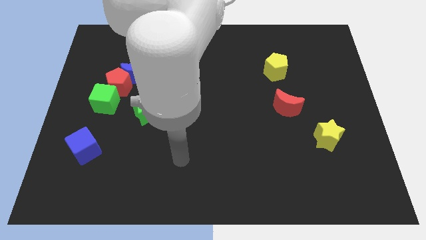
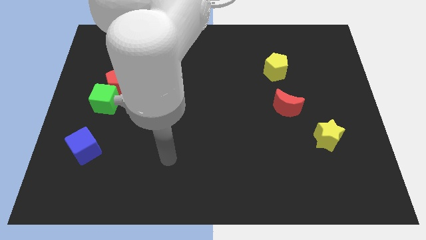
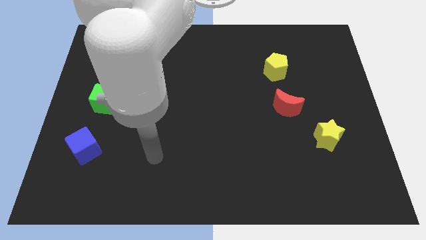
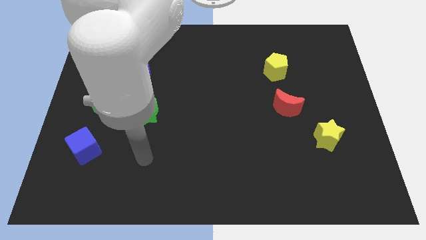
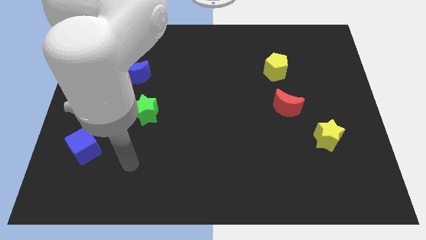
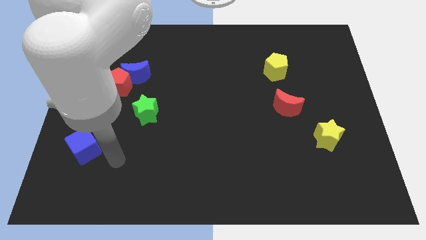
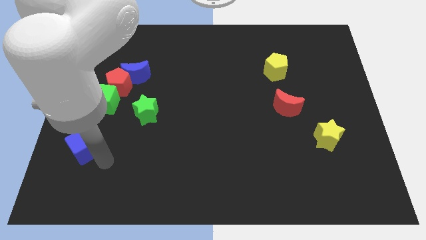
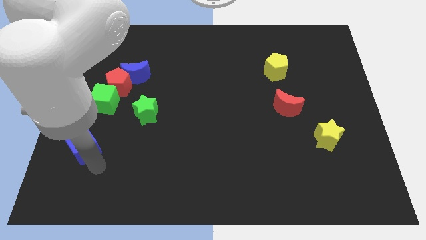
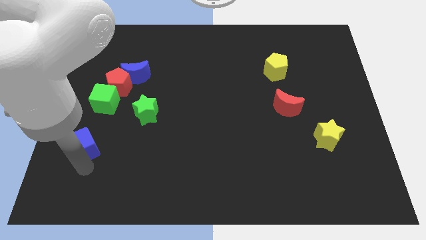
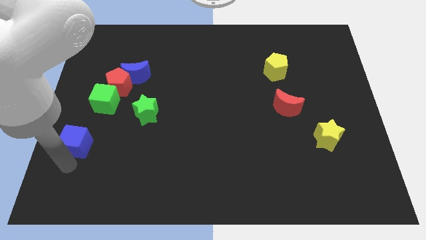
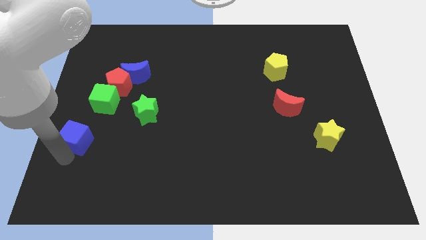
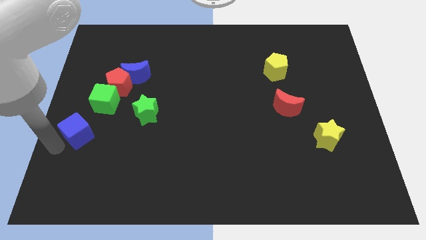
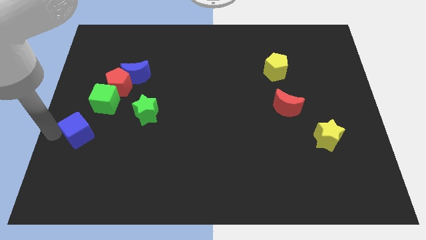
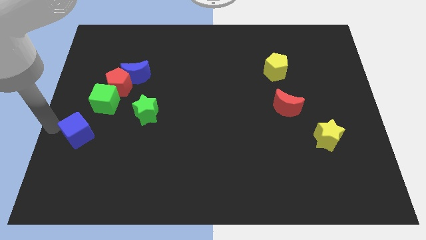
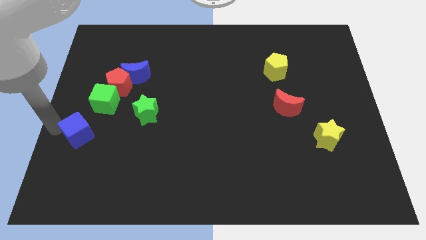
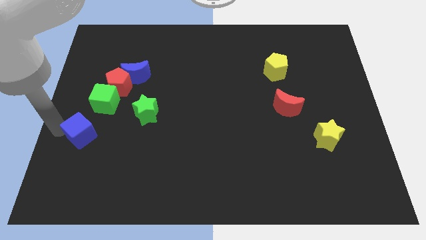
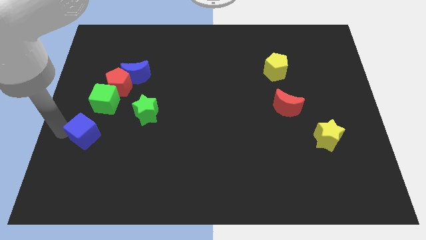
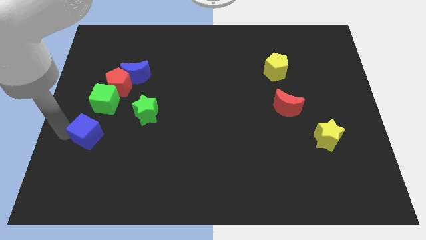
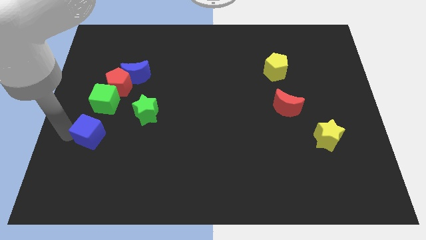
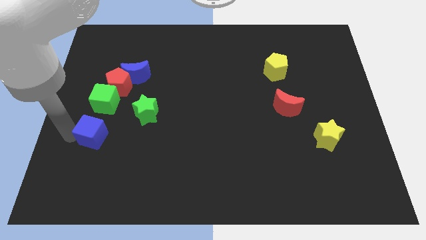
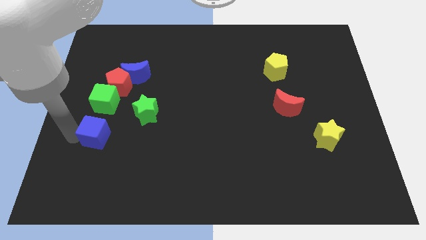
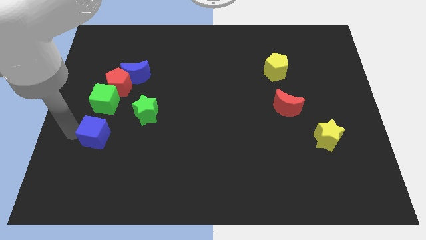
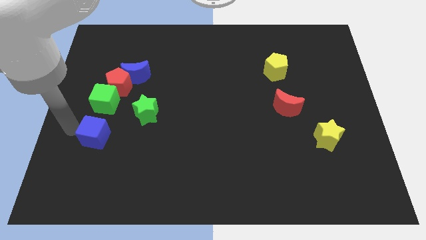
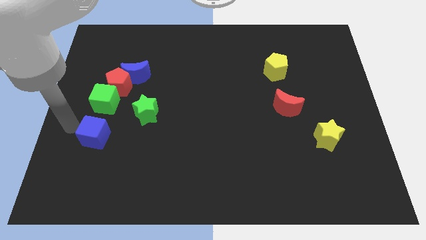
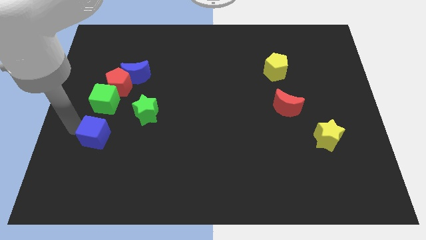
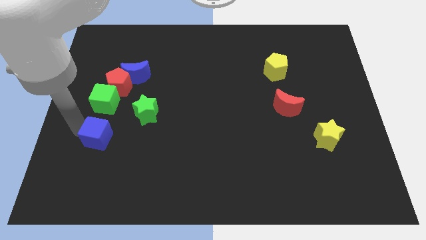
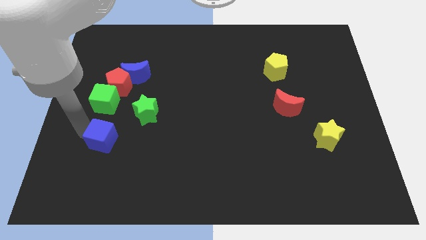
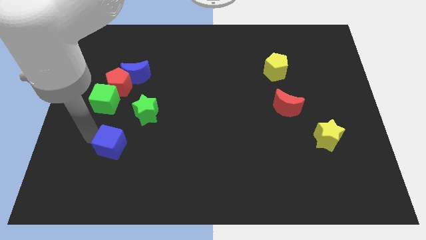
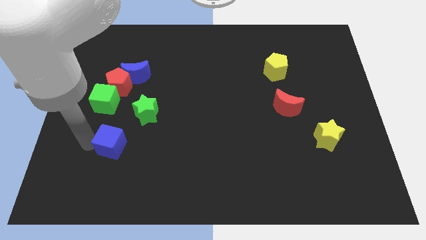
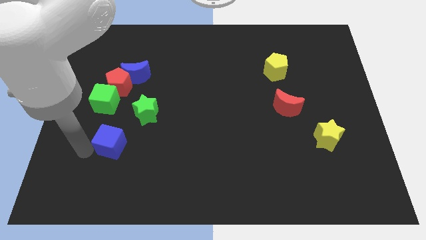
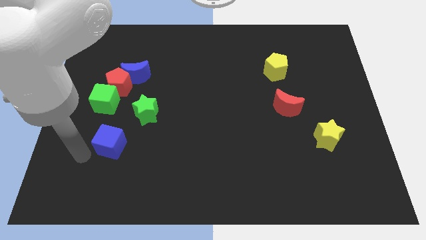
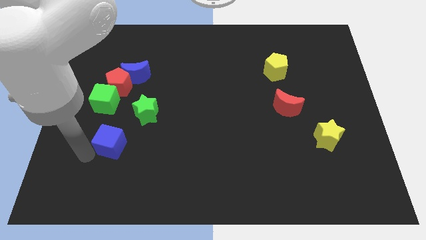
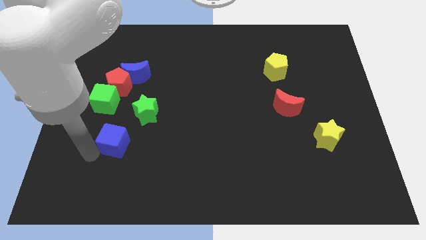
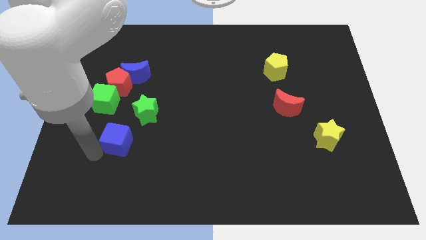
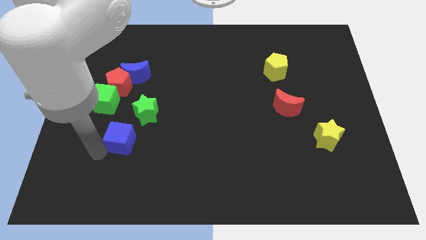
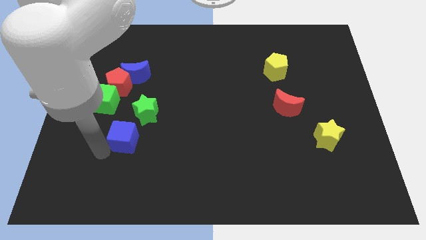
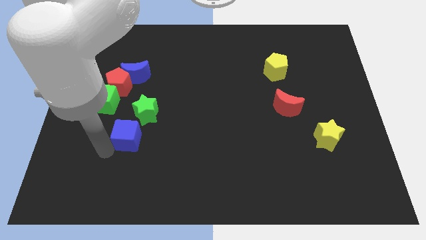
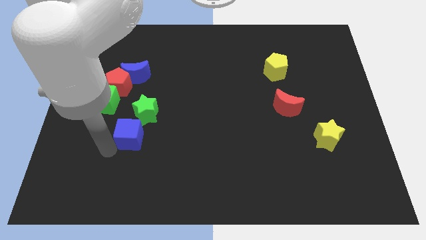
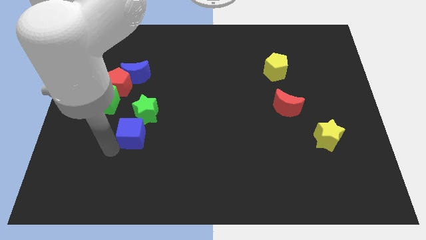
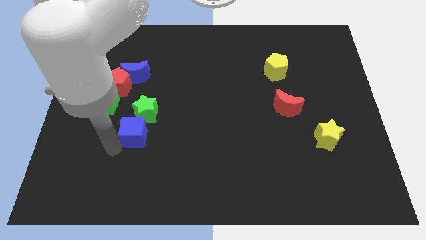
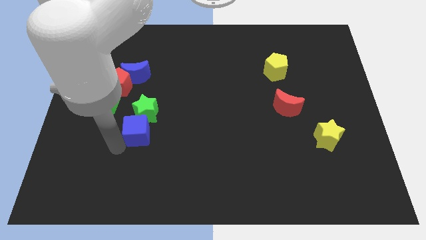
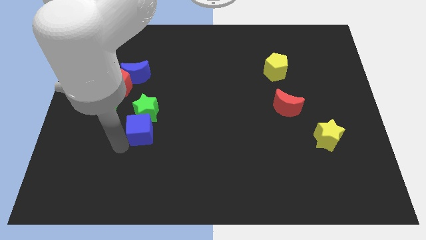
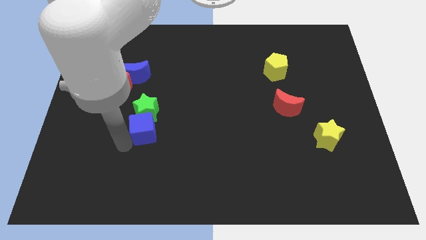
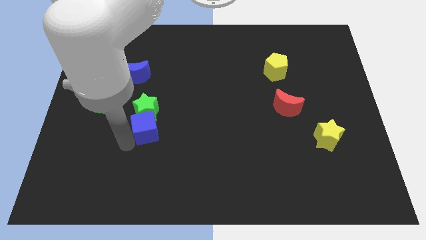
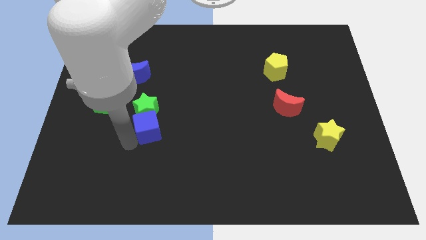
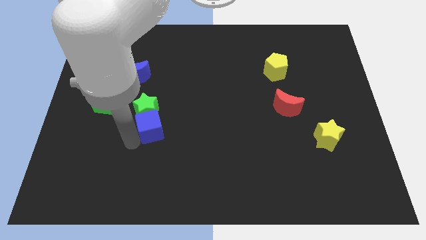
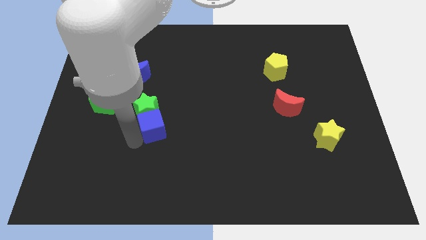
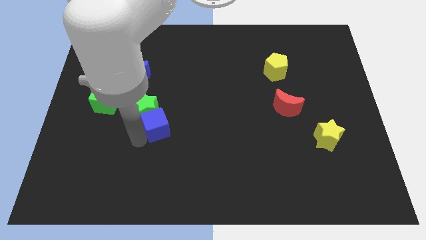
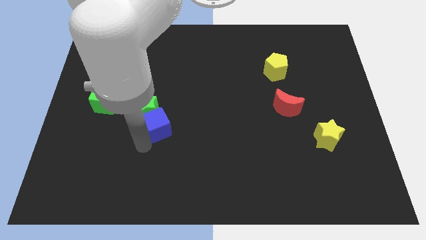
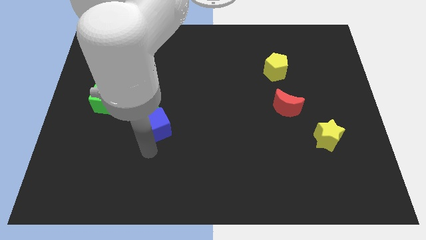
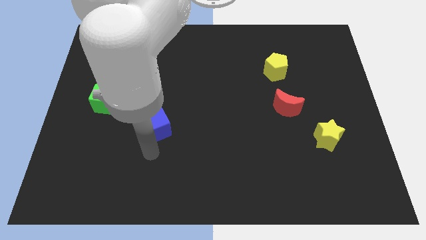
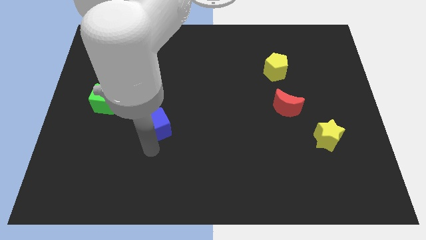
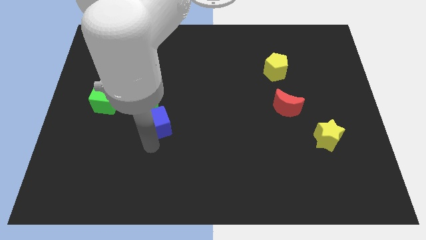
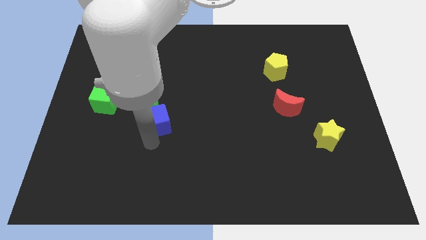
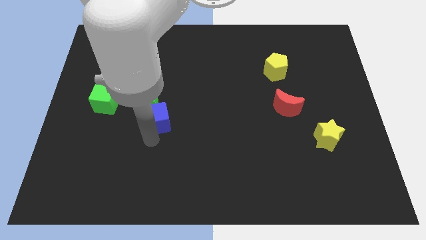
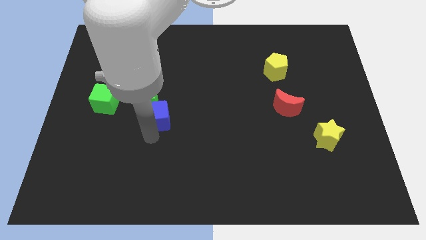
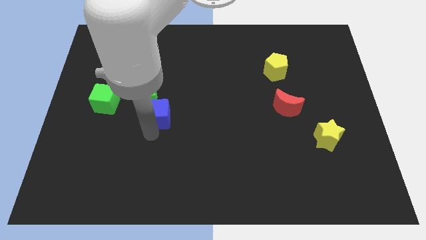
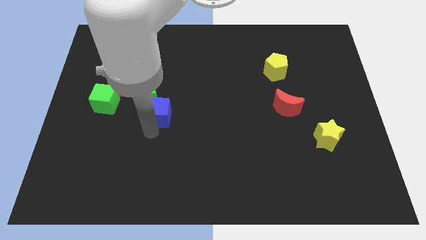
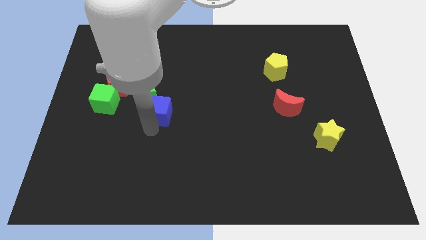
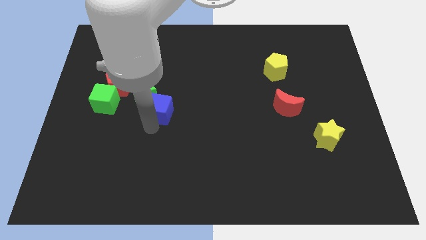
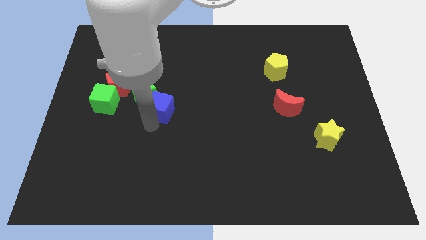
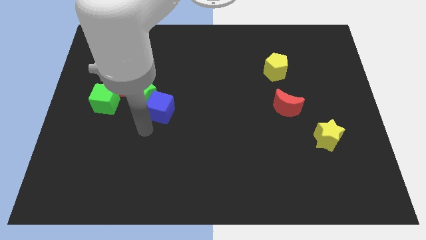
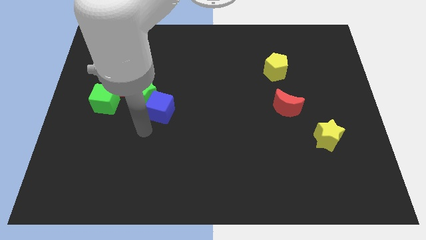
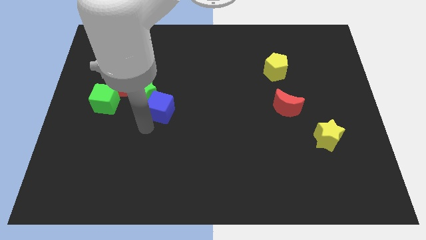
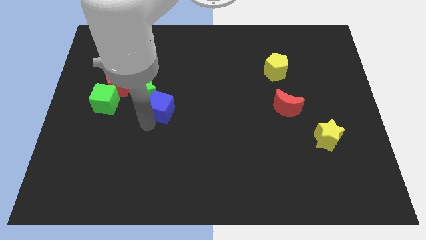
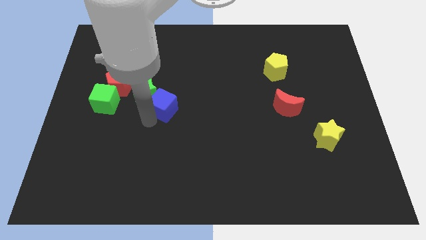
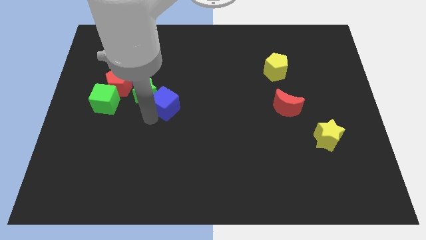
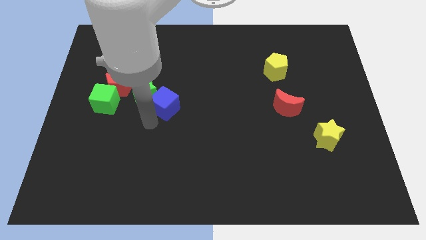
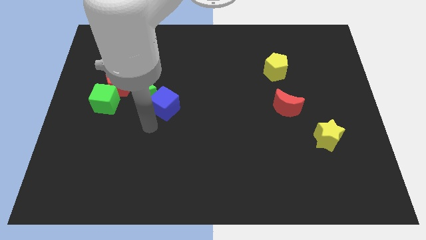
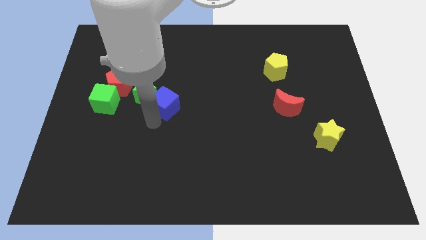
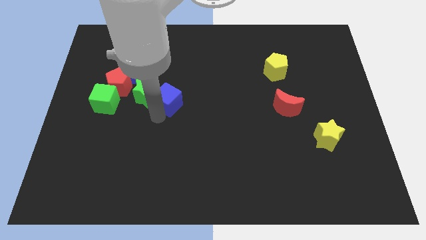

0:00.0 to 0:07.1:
slide the blue cube up and right diagonally

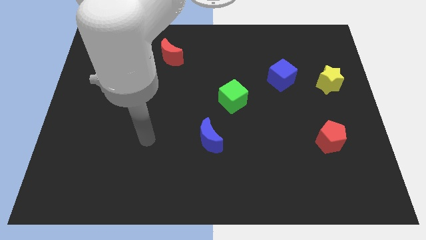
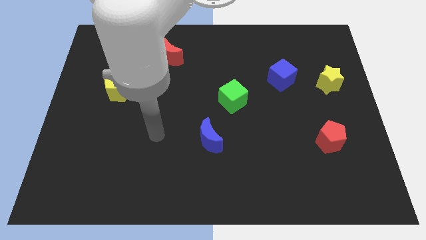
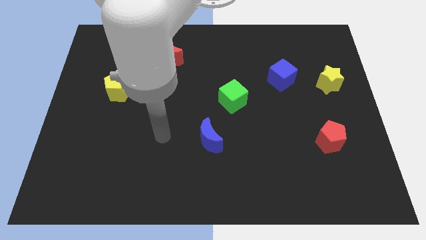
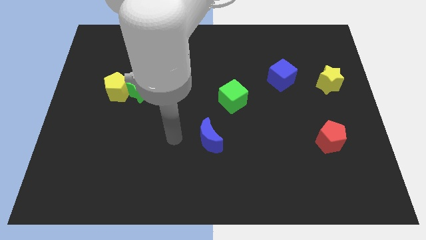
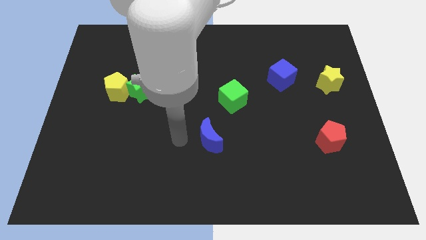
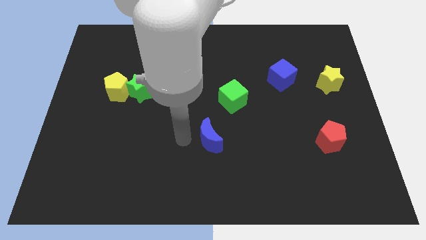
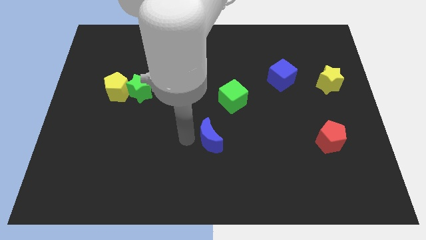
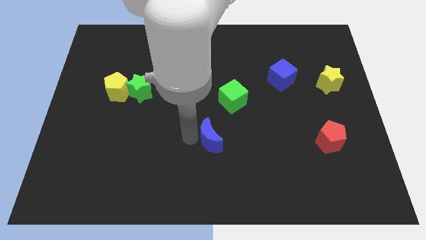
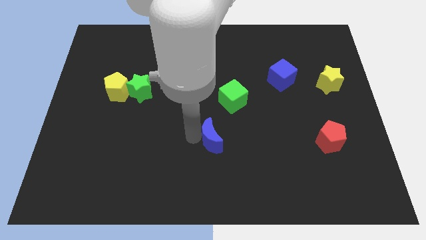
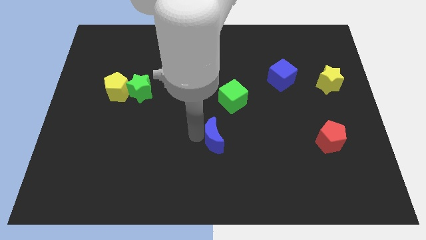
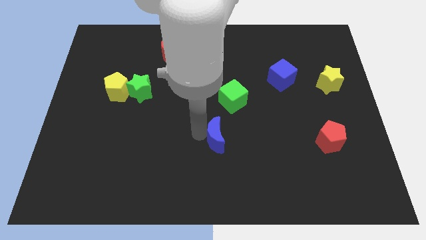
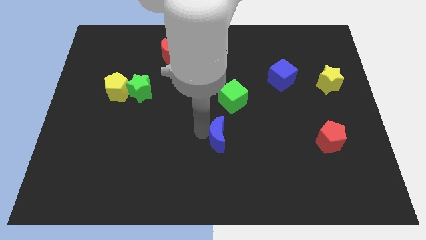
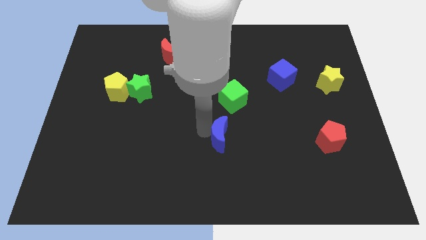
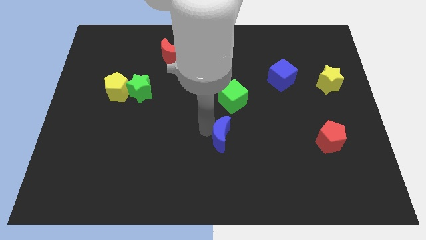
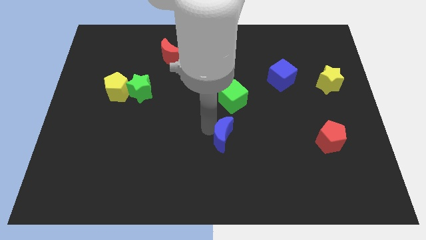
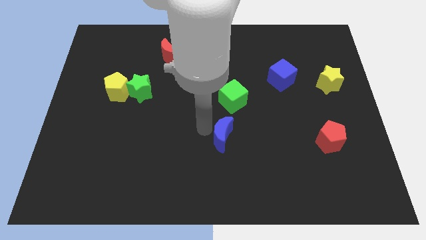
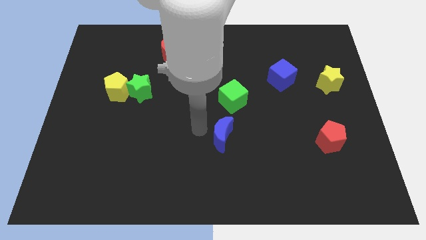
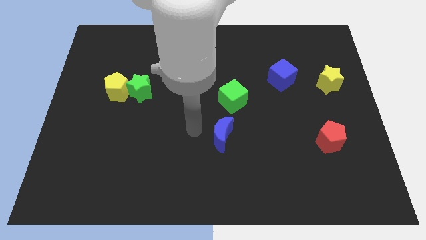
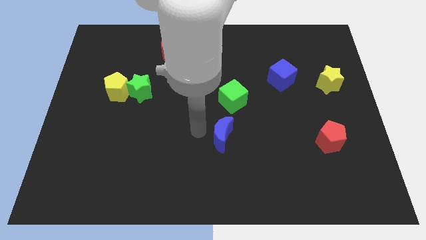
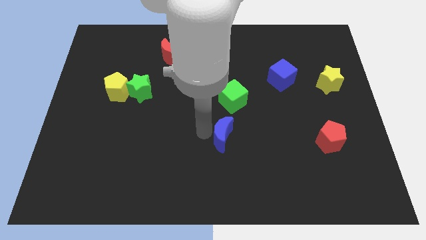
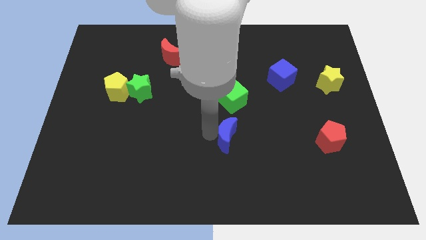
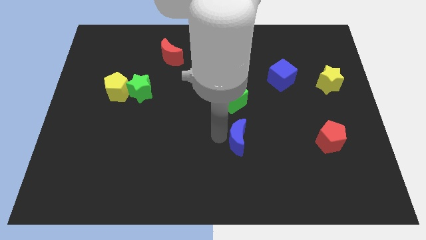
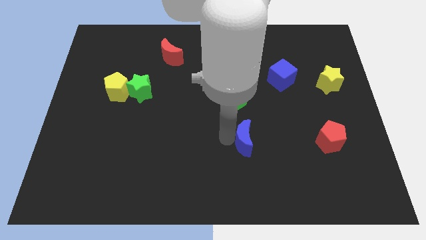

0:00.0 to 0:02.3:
move the blue moon to the right a little
